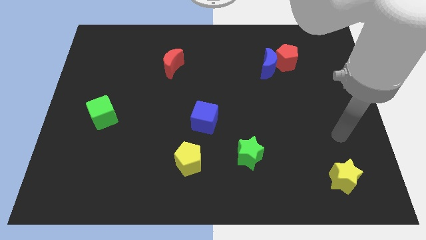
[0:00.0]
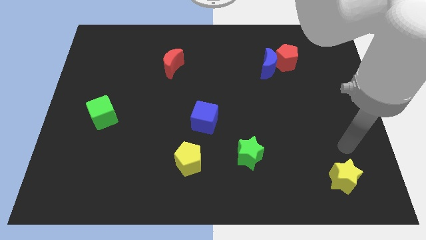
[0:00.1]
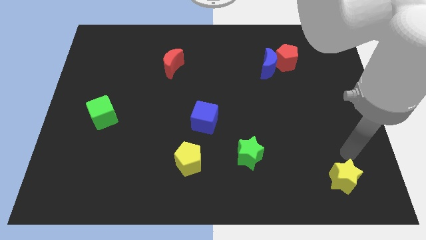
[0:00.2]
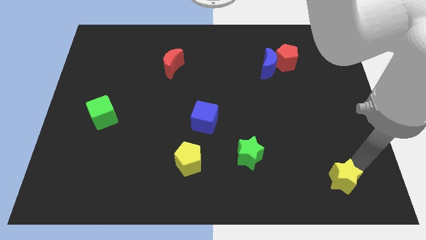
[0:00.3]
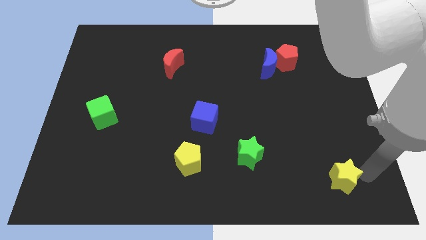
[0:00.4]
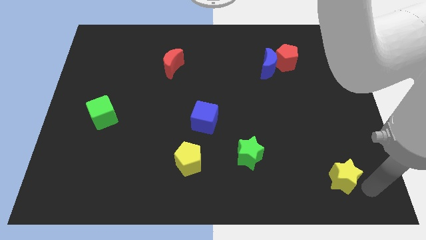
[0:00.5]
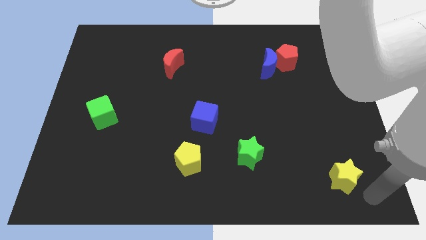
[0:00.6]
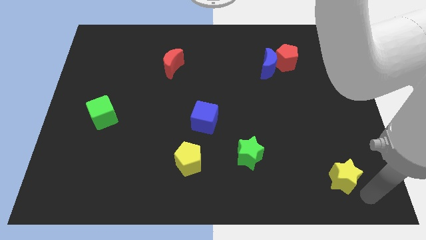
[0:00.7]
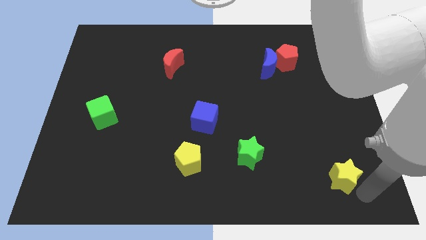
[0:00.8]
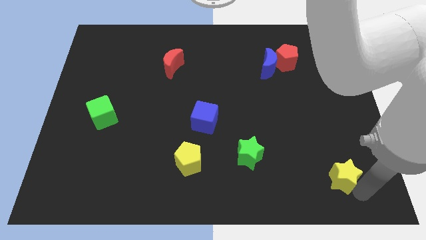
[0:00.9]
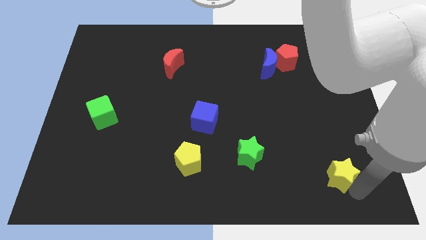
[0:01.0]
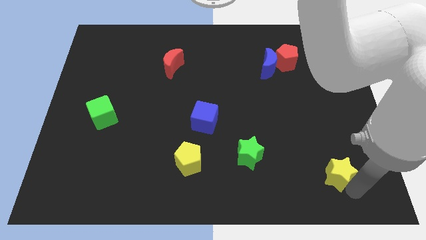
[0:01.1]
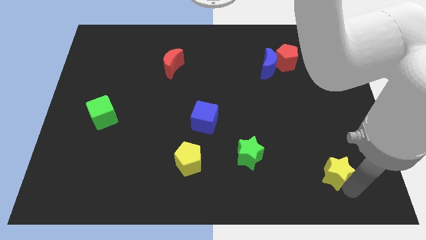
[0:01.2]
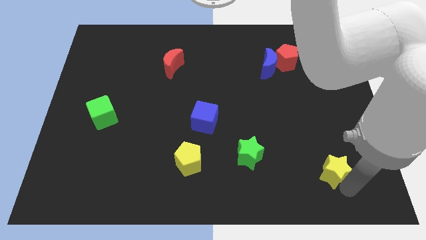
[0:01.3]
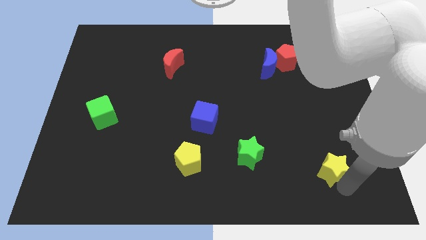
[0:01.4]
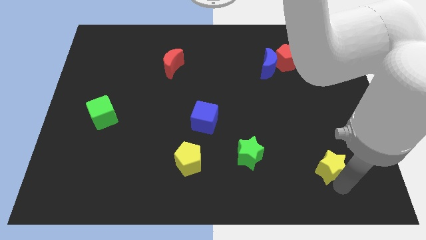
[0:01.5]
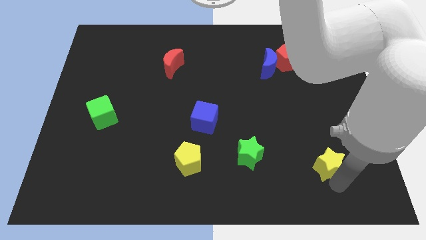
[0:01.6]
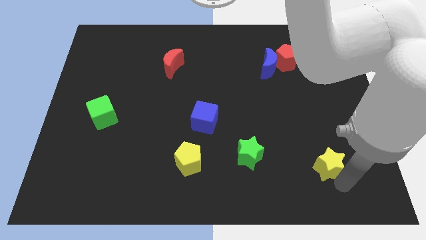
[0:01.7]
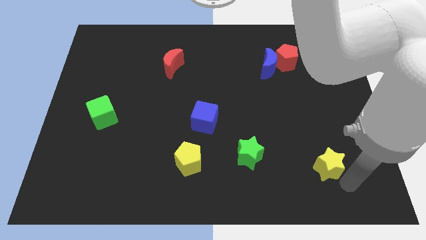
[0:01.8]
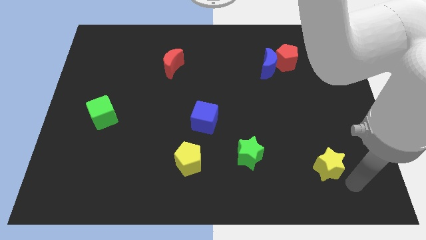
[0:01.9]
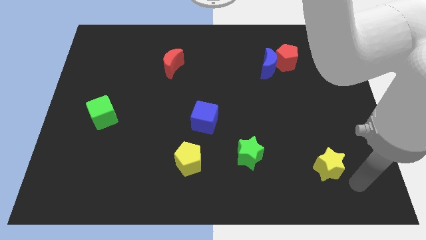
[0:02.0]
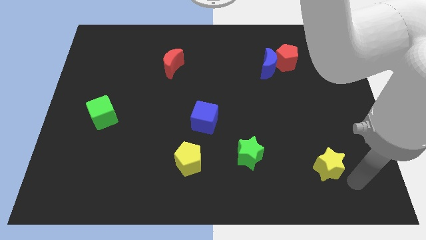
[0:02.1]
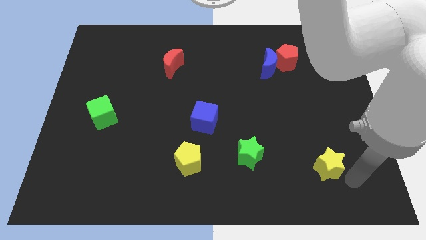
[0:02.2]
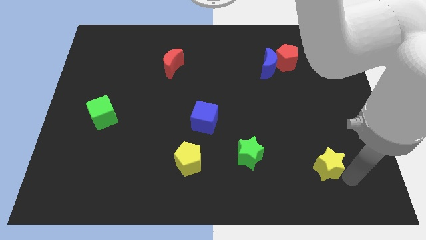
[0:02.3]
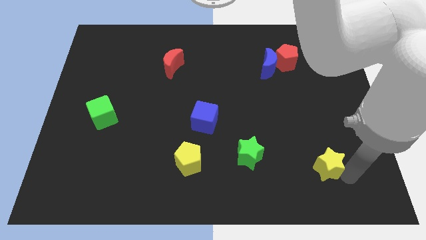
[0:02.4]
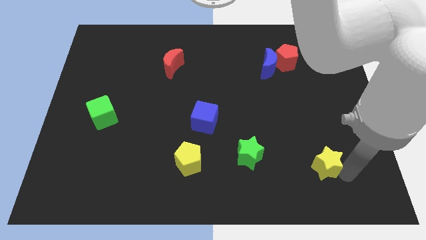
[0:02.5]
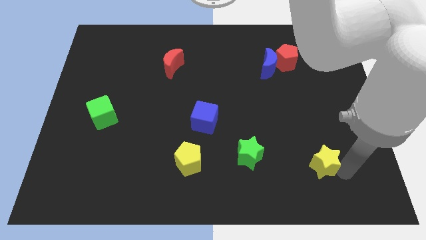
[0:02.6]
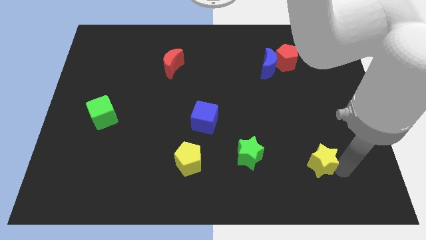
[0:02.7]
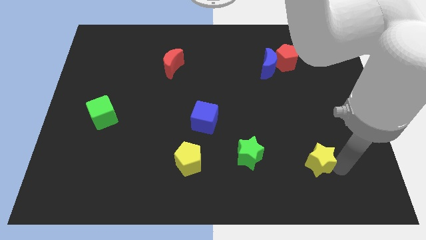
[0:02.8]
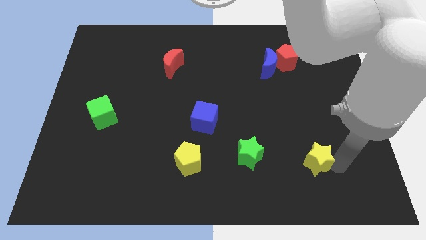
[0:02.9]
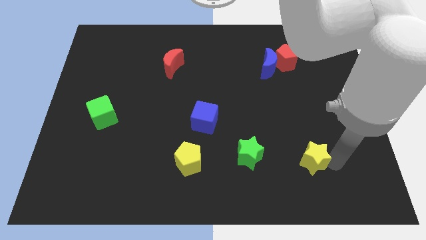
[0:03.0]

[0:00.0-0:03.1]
push the yellow star a little upwards and then left

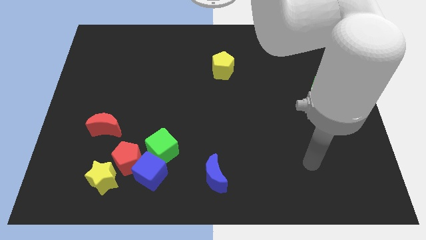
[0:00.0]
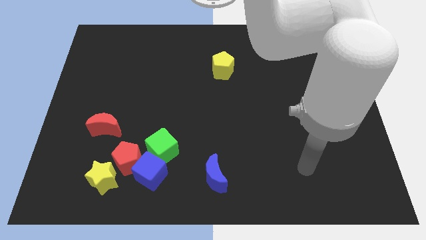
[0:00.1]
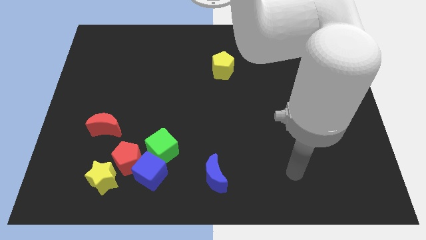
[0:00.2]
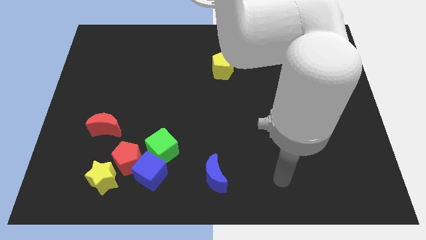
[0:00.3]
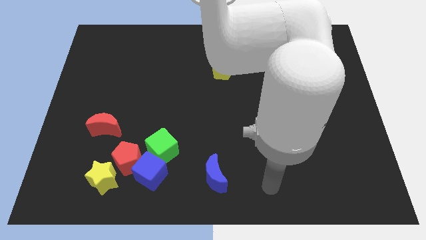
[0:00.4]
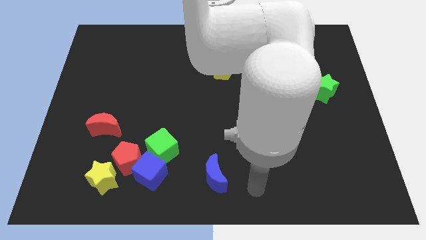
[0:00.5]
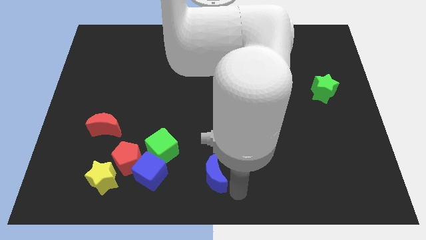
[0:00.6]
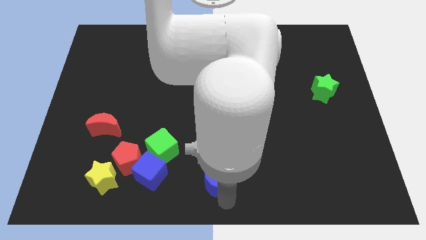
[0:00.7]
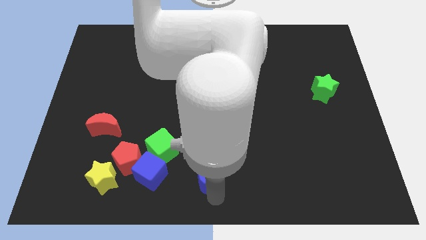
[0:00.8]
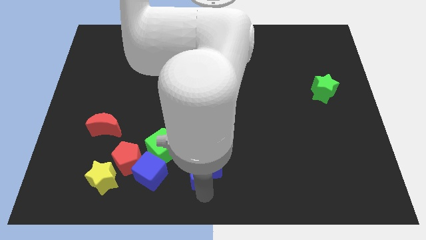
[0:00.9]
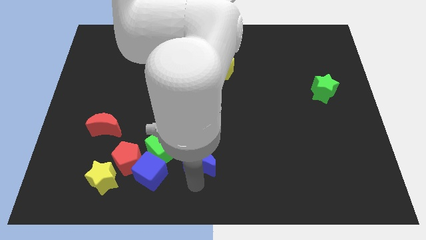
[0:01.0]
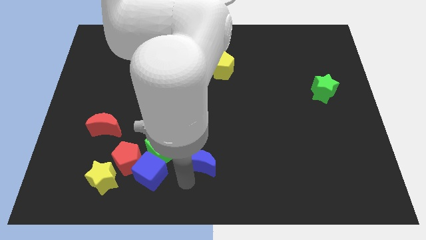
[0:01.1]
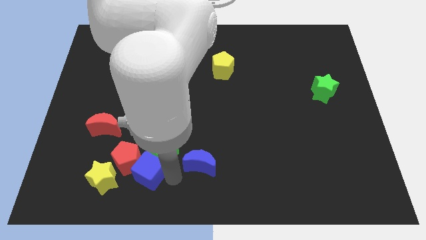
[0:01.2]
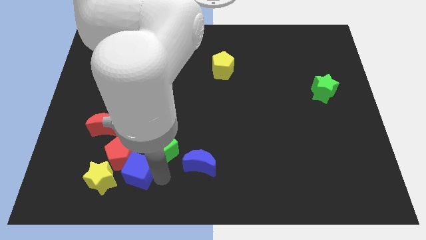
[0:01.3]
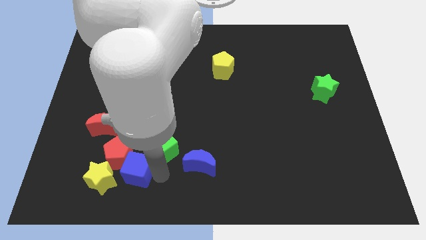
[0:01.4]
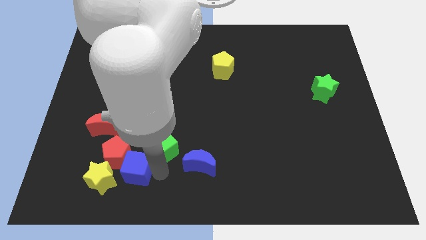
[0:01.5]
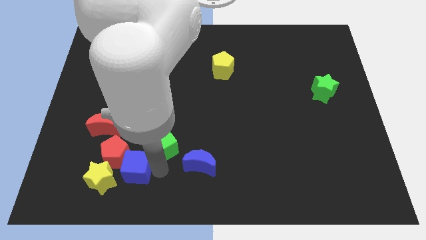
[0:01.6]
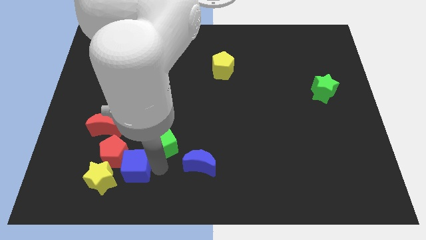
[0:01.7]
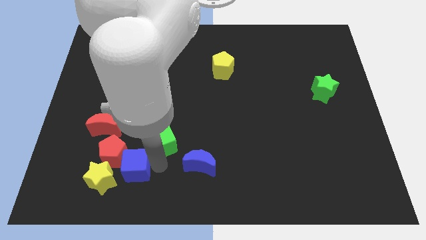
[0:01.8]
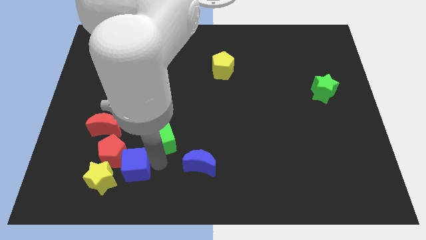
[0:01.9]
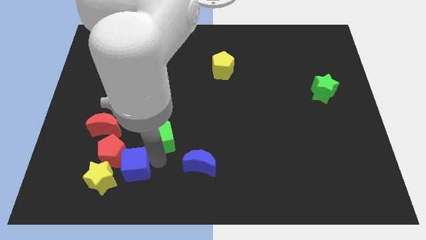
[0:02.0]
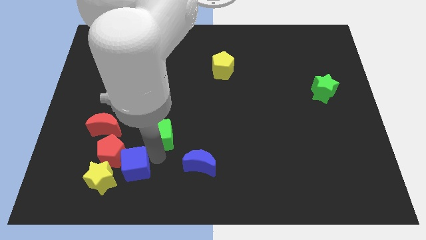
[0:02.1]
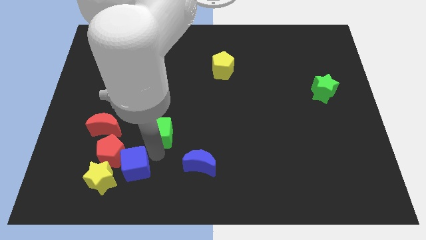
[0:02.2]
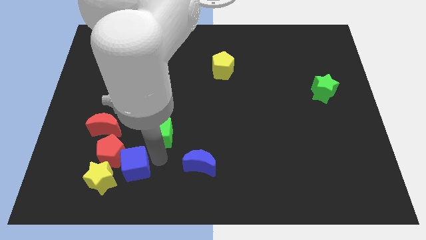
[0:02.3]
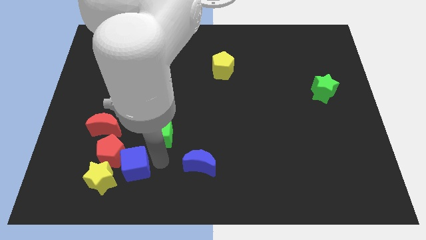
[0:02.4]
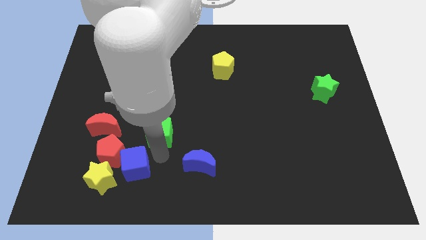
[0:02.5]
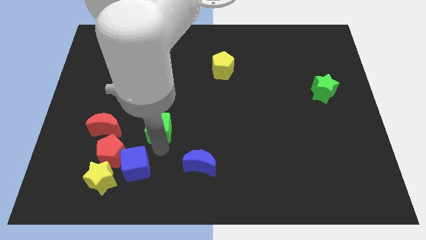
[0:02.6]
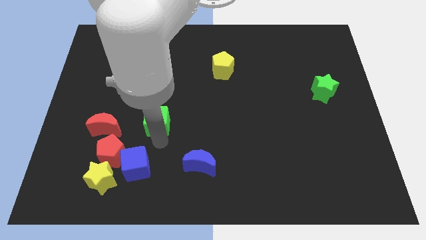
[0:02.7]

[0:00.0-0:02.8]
slightly slide the green cube up

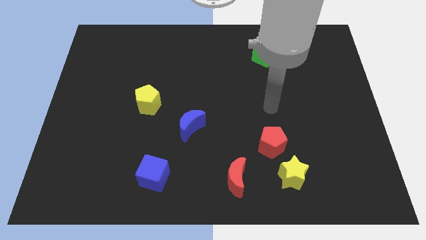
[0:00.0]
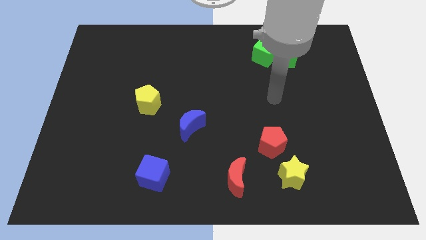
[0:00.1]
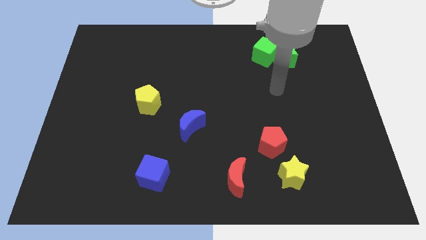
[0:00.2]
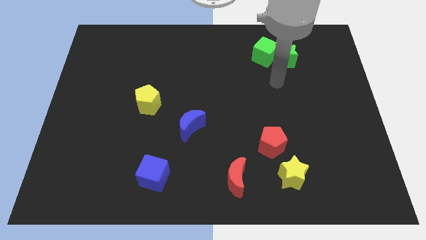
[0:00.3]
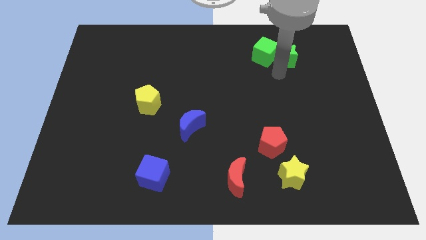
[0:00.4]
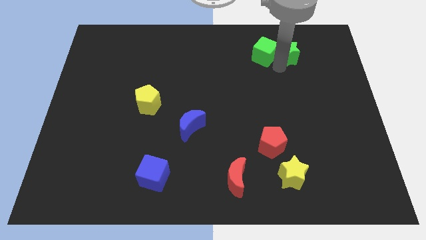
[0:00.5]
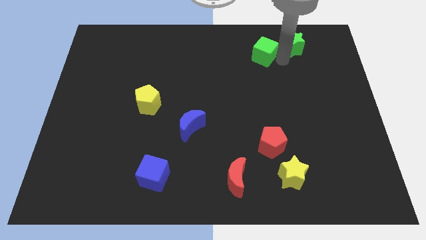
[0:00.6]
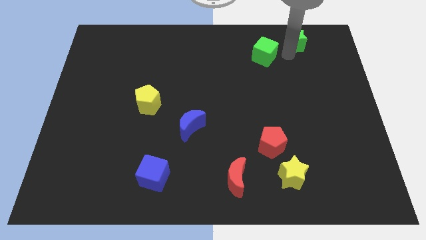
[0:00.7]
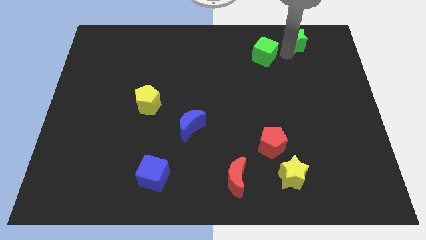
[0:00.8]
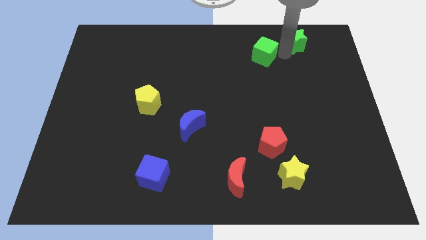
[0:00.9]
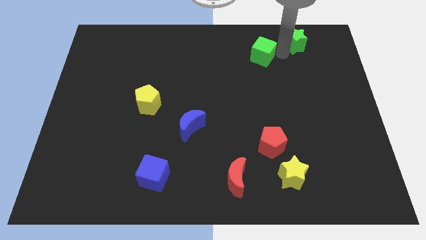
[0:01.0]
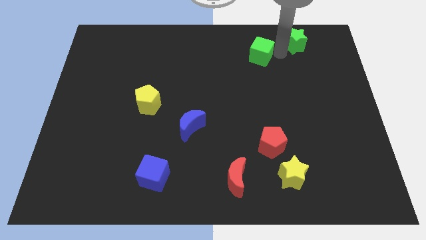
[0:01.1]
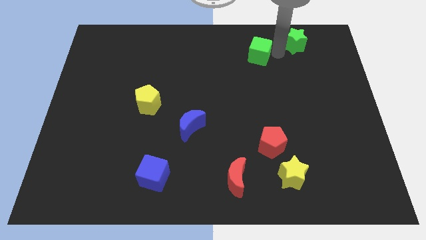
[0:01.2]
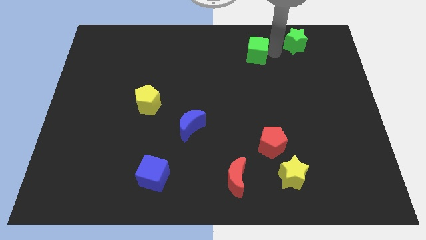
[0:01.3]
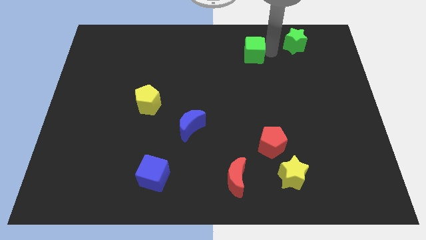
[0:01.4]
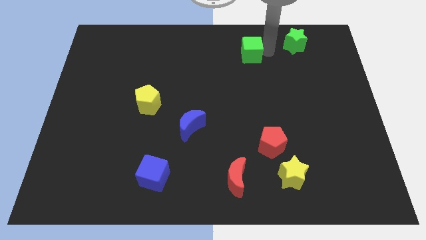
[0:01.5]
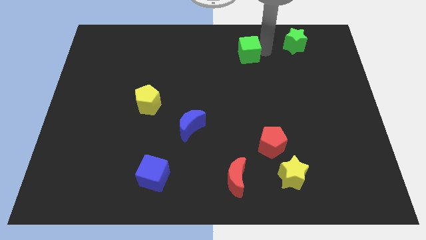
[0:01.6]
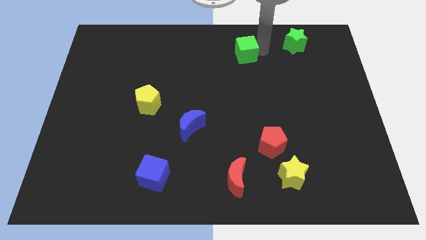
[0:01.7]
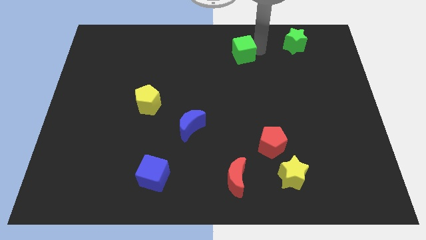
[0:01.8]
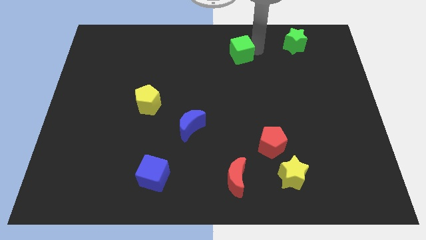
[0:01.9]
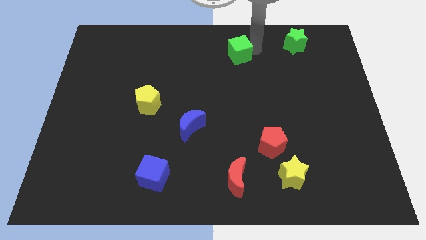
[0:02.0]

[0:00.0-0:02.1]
push the green cube left slightly
